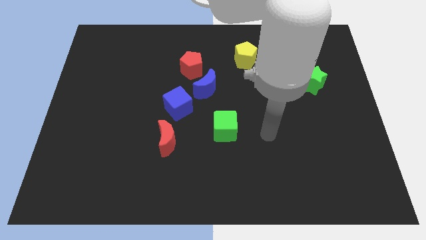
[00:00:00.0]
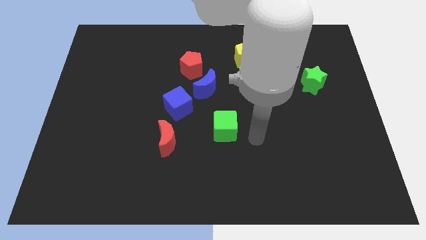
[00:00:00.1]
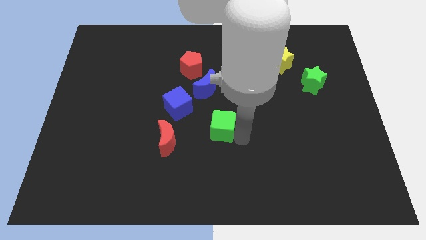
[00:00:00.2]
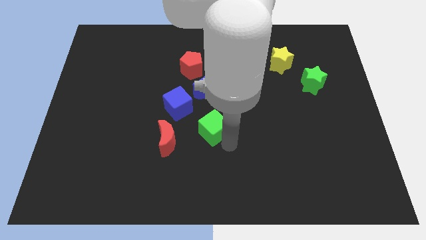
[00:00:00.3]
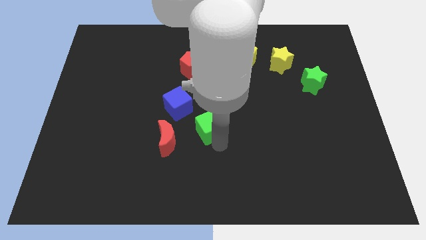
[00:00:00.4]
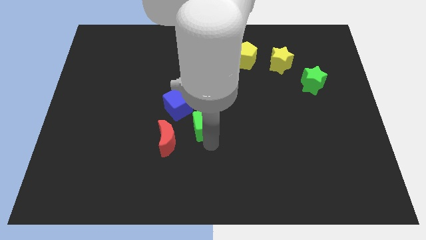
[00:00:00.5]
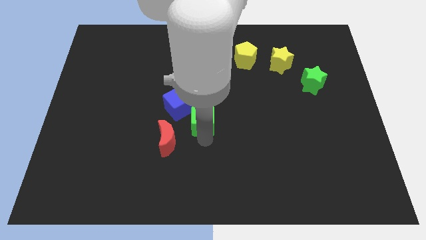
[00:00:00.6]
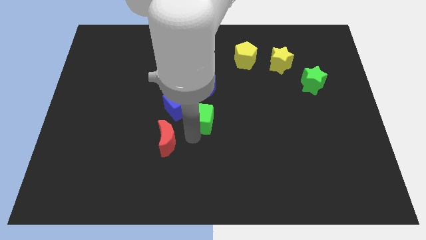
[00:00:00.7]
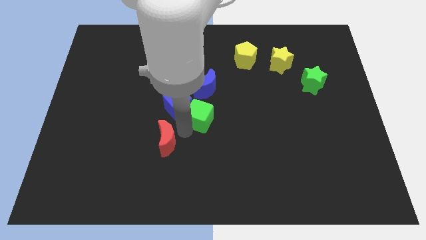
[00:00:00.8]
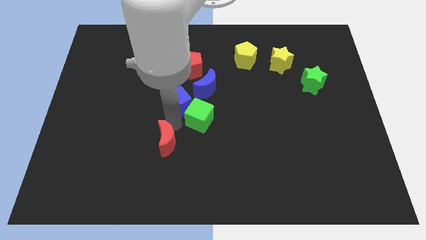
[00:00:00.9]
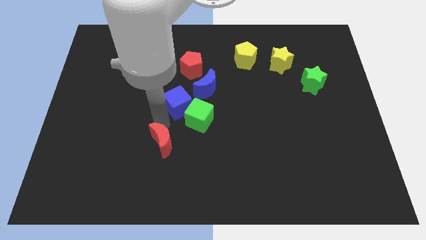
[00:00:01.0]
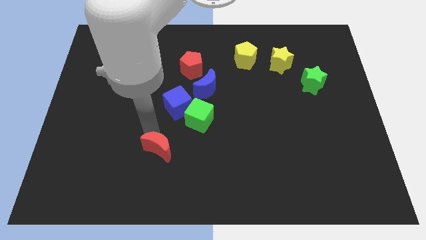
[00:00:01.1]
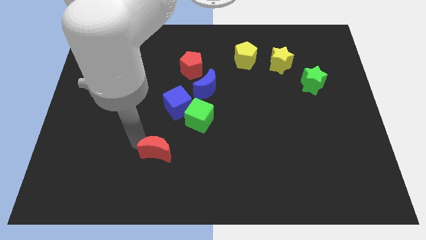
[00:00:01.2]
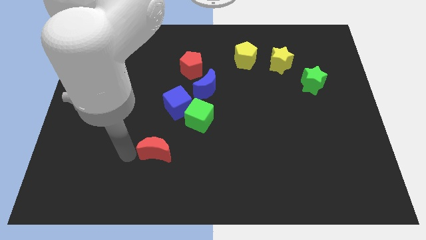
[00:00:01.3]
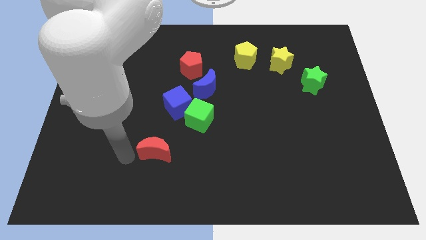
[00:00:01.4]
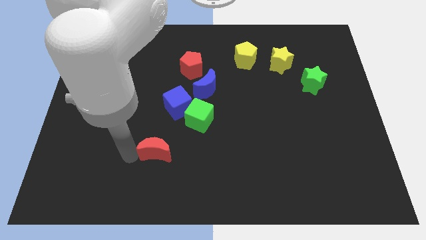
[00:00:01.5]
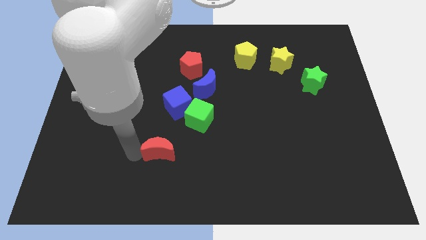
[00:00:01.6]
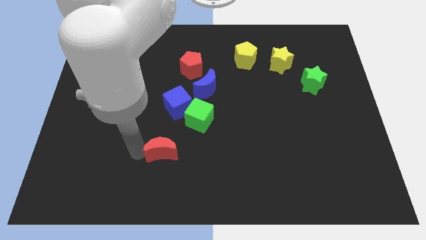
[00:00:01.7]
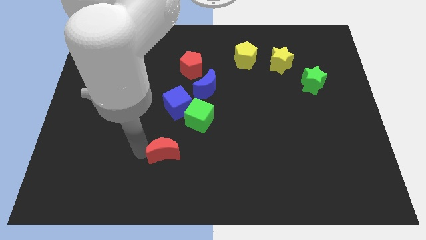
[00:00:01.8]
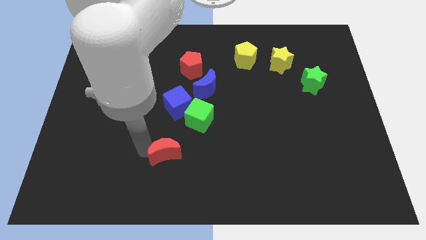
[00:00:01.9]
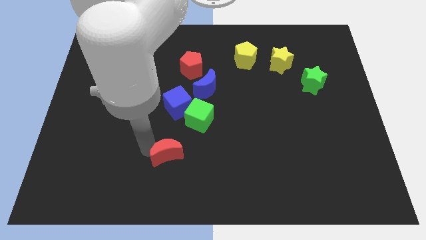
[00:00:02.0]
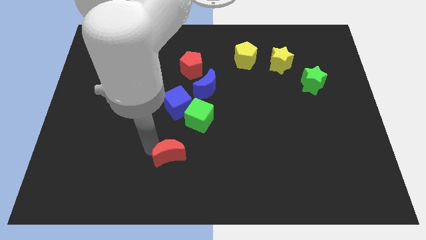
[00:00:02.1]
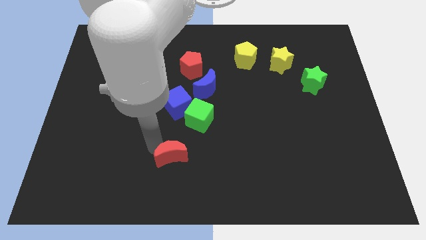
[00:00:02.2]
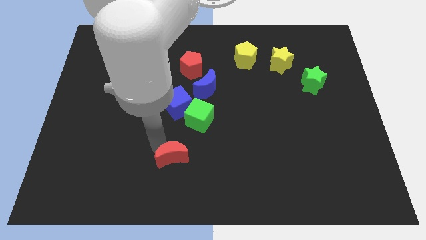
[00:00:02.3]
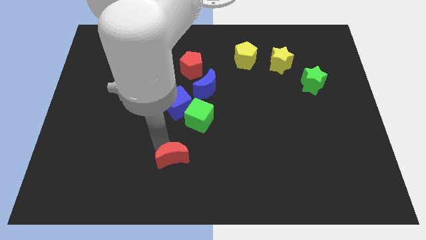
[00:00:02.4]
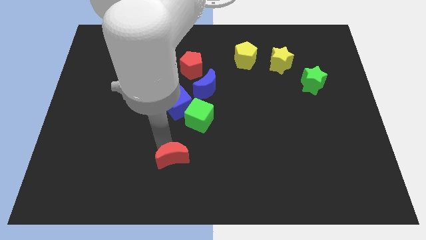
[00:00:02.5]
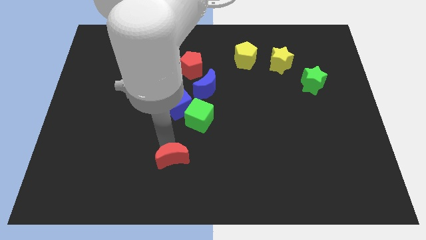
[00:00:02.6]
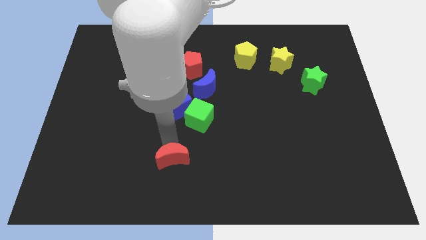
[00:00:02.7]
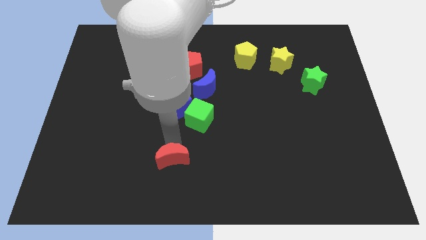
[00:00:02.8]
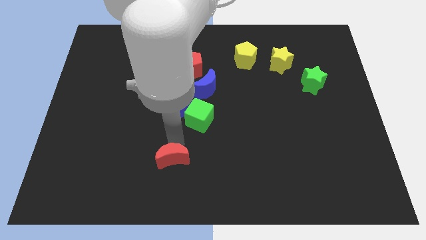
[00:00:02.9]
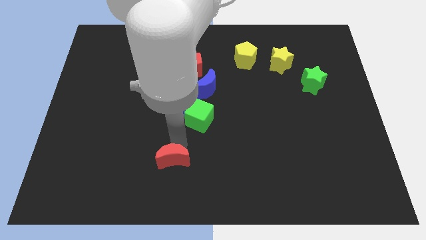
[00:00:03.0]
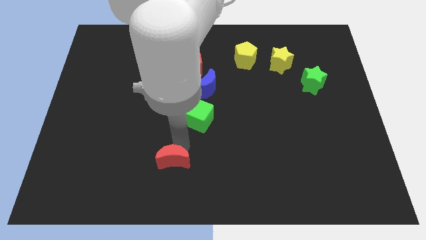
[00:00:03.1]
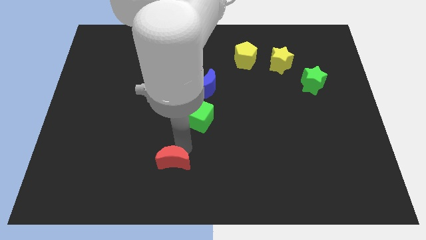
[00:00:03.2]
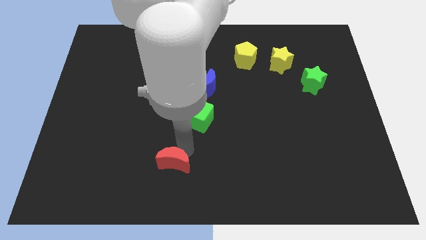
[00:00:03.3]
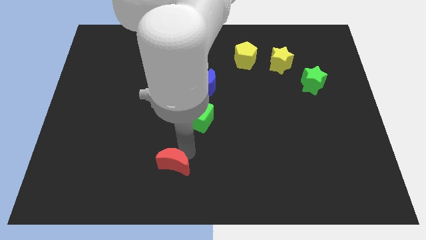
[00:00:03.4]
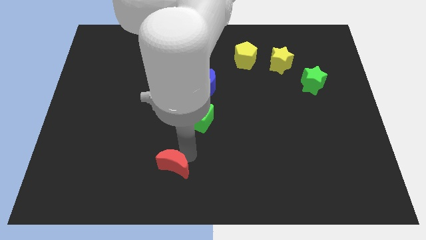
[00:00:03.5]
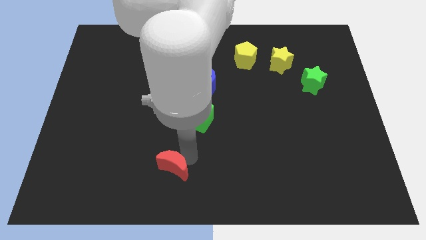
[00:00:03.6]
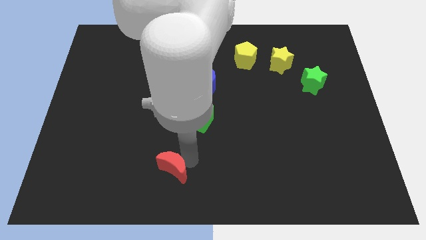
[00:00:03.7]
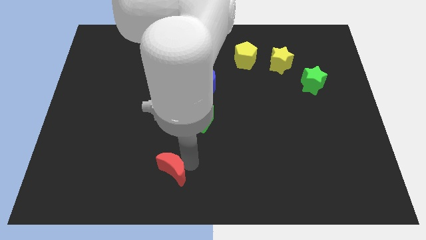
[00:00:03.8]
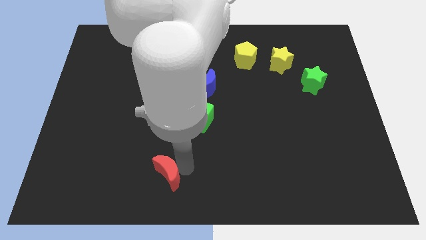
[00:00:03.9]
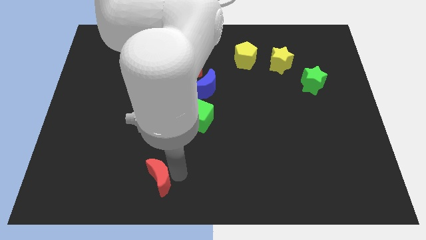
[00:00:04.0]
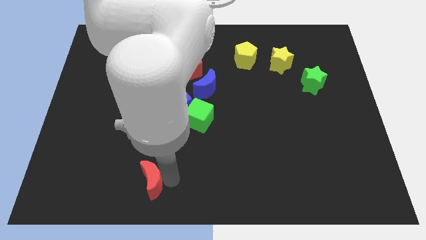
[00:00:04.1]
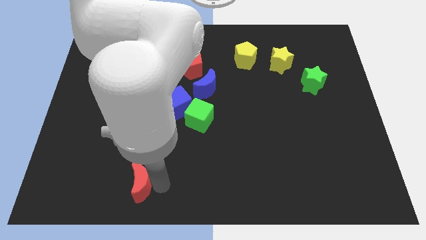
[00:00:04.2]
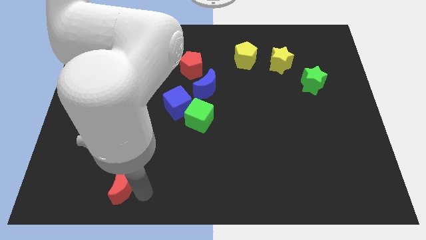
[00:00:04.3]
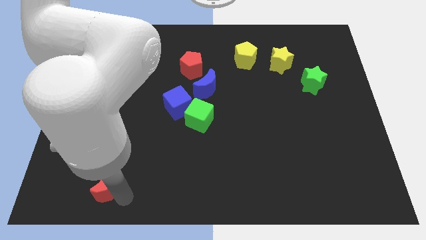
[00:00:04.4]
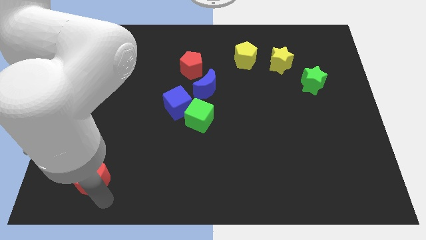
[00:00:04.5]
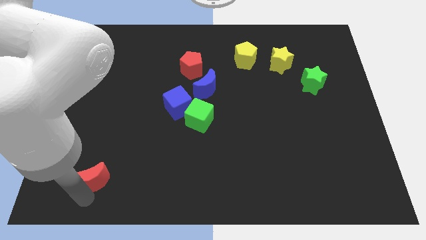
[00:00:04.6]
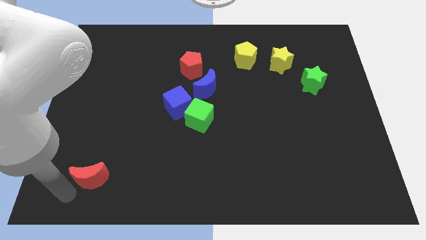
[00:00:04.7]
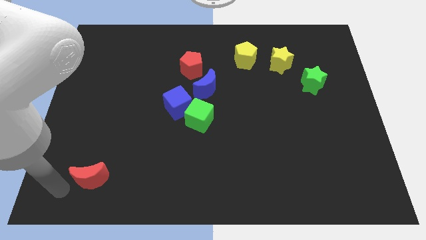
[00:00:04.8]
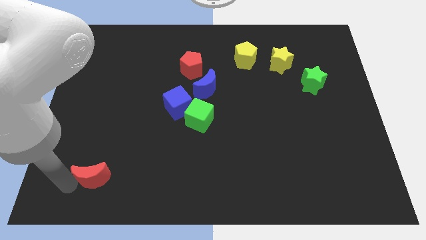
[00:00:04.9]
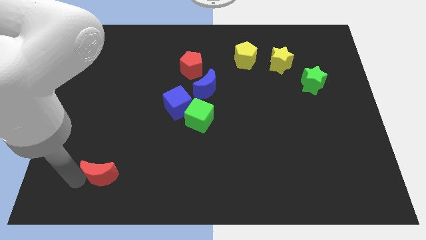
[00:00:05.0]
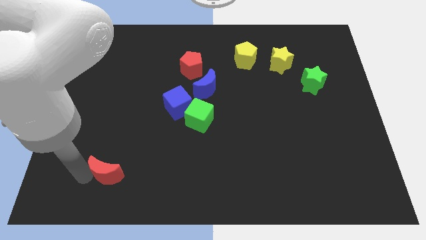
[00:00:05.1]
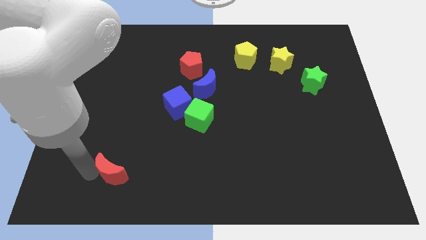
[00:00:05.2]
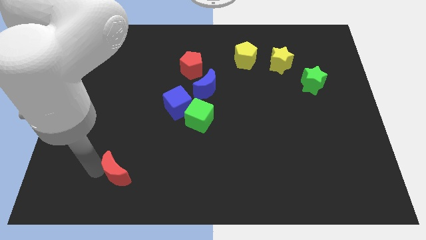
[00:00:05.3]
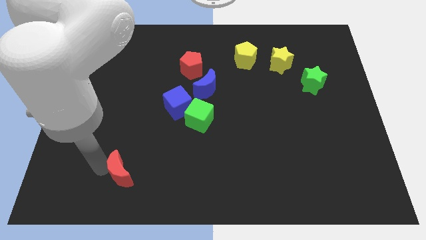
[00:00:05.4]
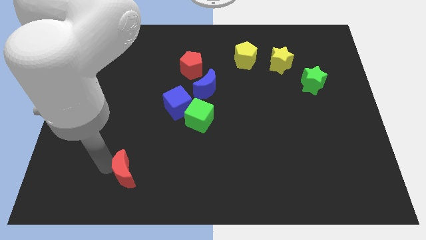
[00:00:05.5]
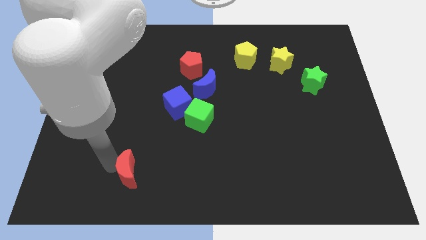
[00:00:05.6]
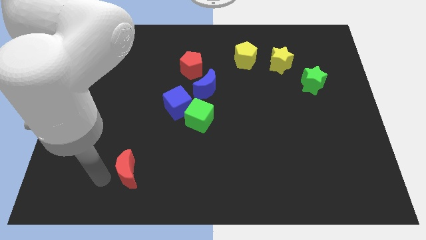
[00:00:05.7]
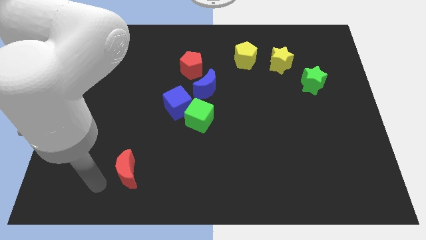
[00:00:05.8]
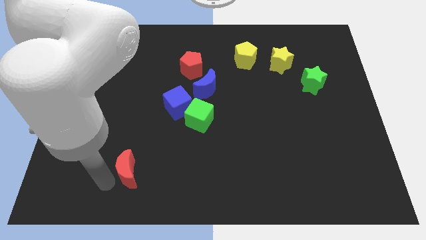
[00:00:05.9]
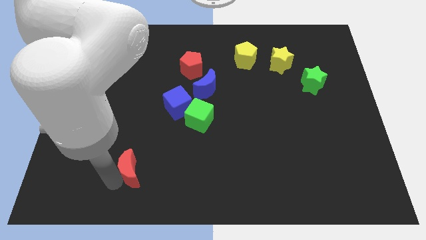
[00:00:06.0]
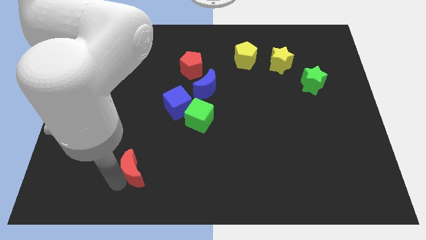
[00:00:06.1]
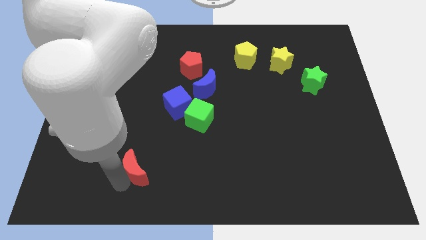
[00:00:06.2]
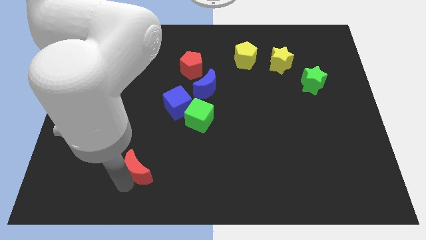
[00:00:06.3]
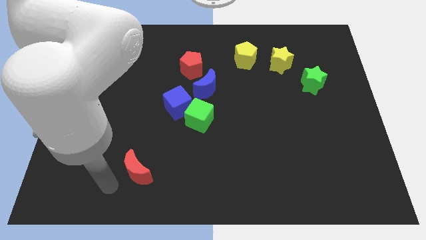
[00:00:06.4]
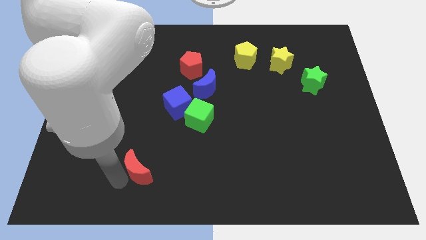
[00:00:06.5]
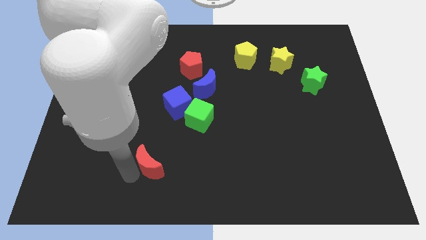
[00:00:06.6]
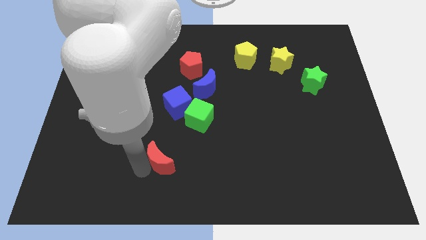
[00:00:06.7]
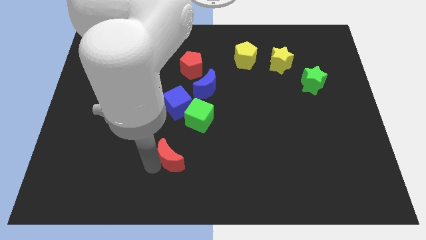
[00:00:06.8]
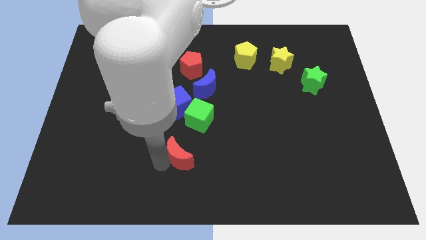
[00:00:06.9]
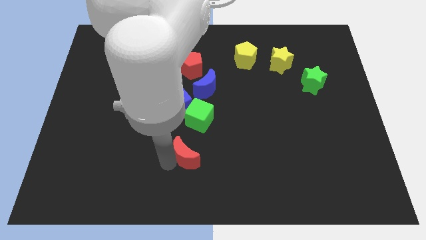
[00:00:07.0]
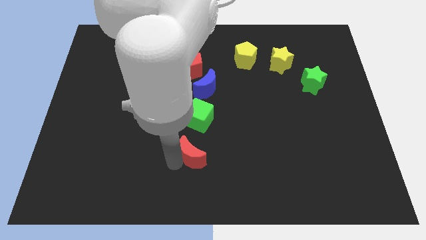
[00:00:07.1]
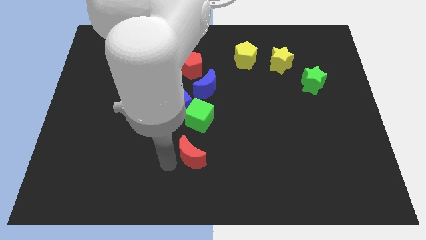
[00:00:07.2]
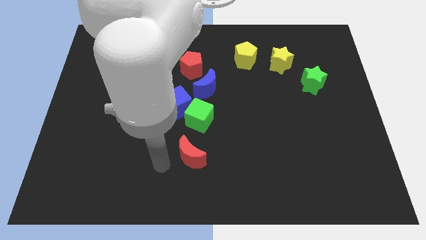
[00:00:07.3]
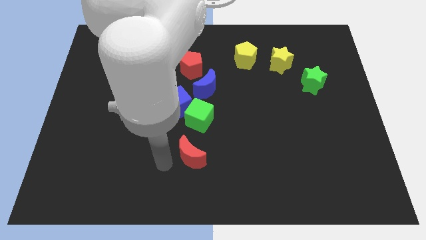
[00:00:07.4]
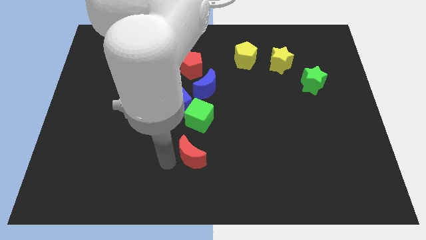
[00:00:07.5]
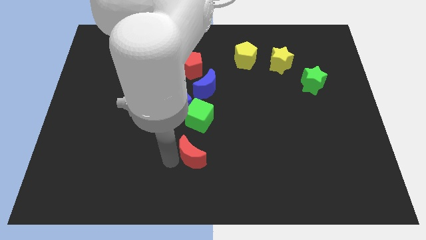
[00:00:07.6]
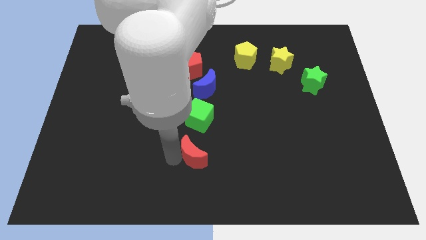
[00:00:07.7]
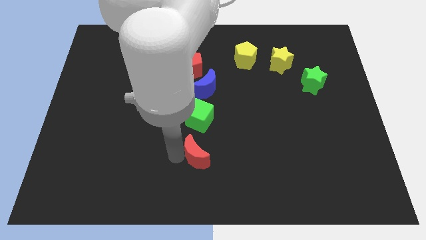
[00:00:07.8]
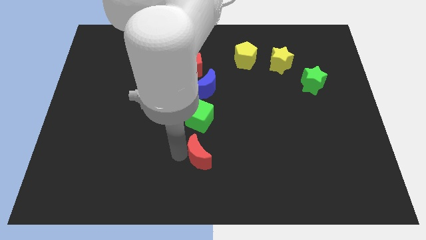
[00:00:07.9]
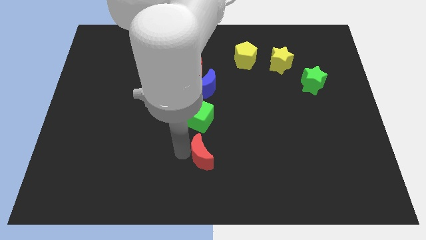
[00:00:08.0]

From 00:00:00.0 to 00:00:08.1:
push the red moon right a little
